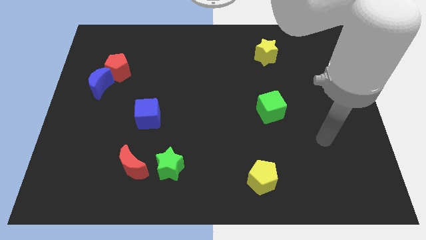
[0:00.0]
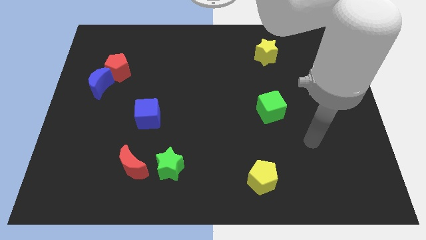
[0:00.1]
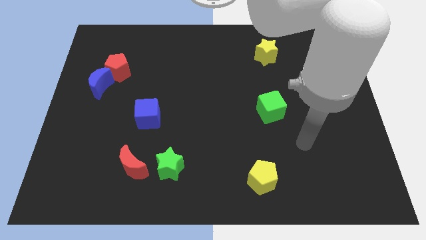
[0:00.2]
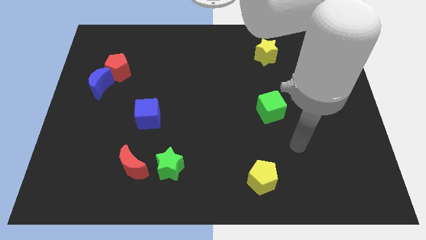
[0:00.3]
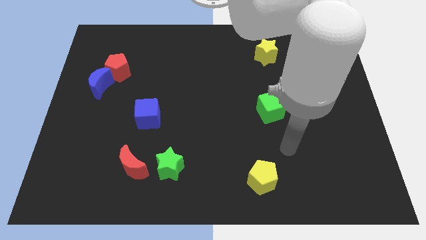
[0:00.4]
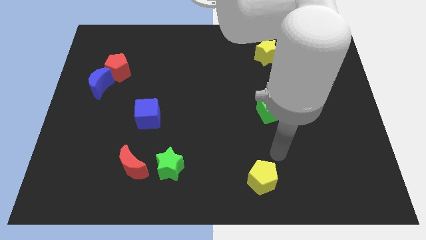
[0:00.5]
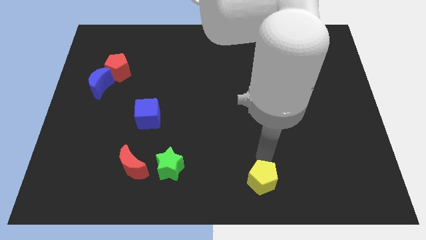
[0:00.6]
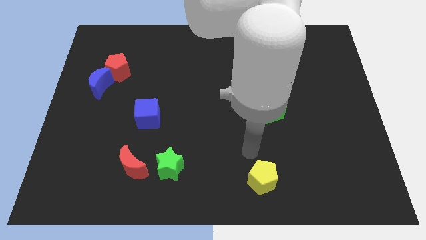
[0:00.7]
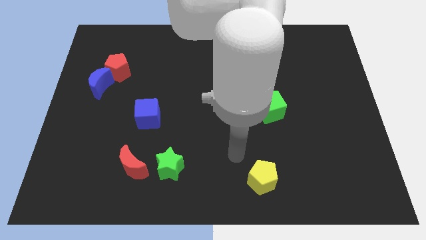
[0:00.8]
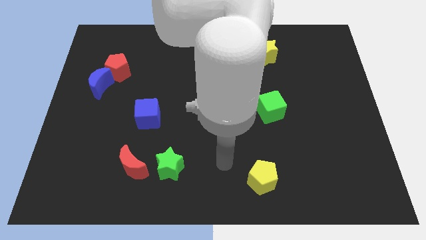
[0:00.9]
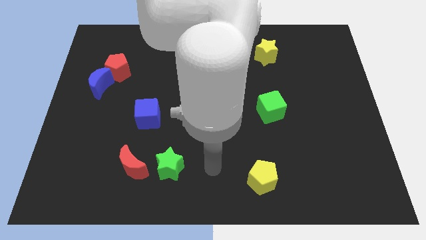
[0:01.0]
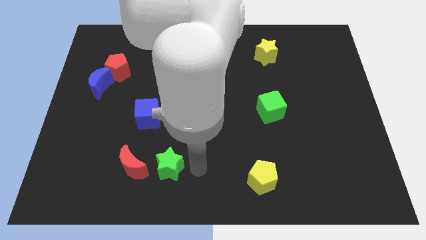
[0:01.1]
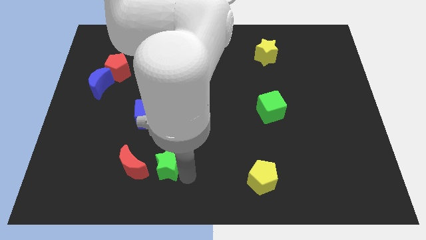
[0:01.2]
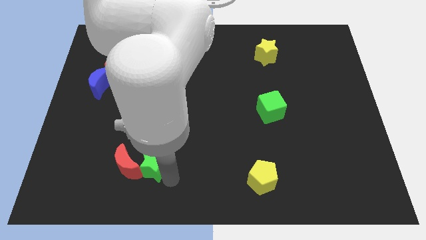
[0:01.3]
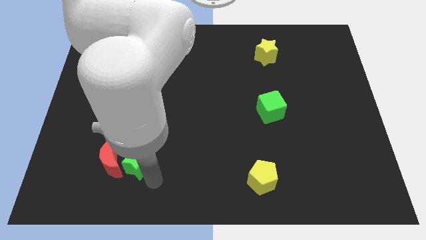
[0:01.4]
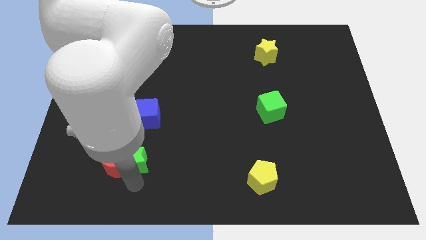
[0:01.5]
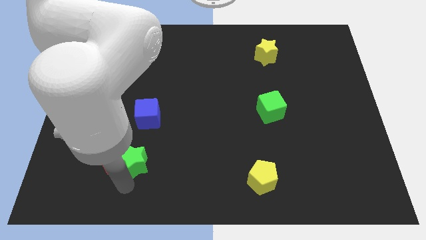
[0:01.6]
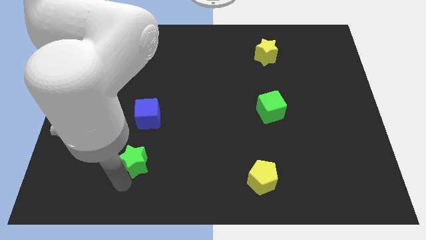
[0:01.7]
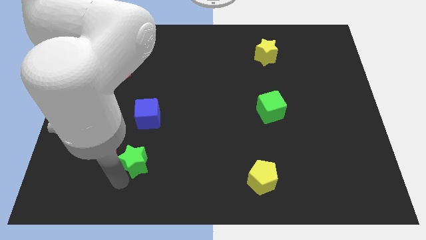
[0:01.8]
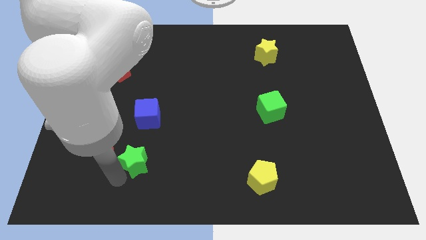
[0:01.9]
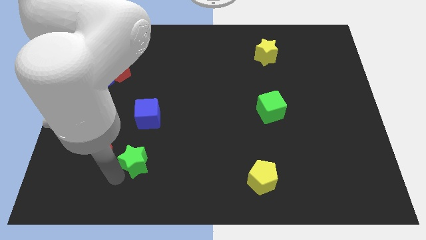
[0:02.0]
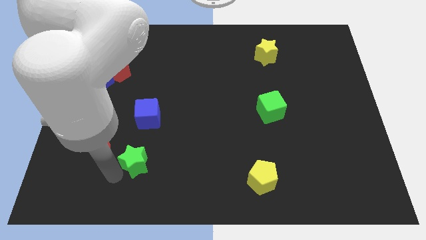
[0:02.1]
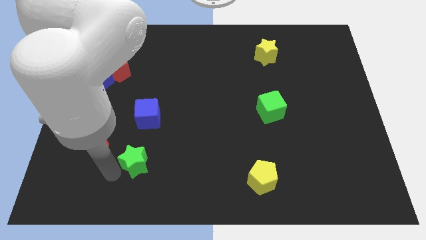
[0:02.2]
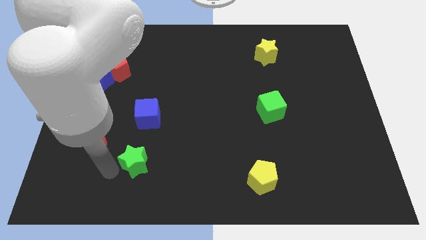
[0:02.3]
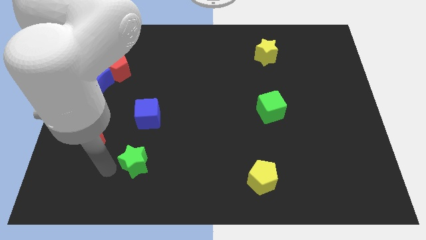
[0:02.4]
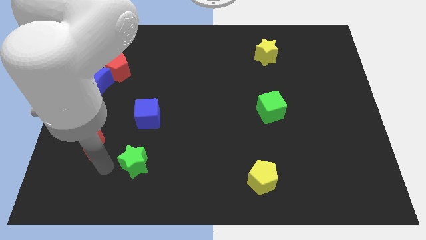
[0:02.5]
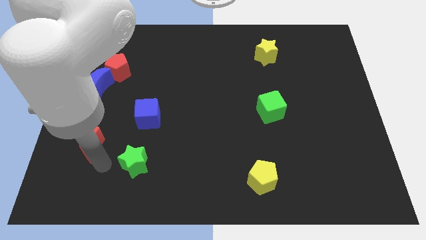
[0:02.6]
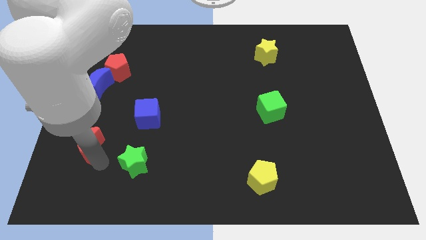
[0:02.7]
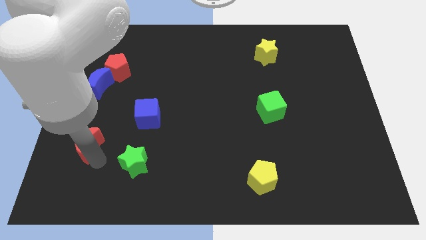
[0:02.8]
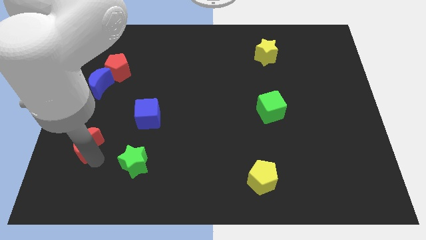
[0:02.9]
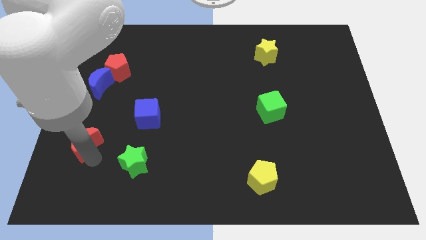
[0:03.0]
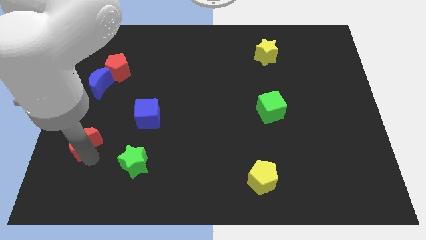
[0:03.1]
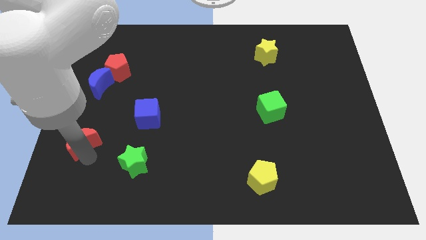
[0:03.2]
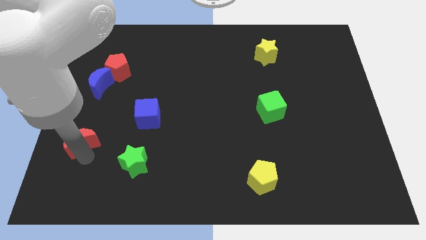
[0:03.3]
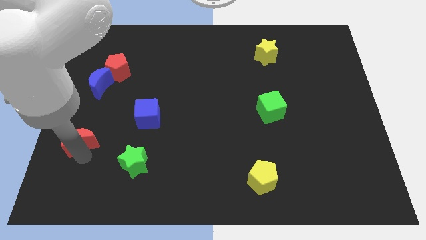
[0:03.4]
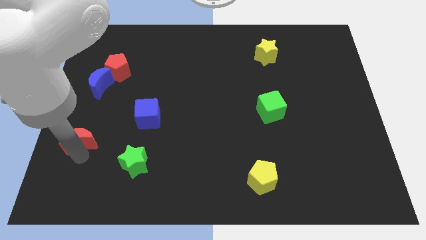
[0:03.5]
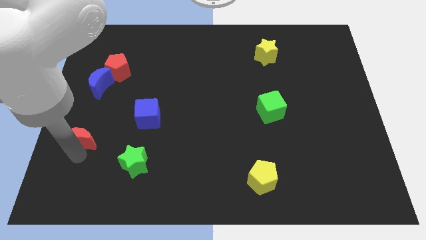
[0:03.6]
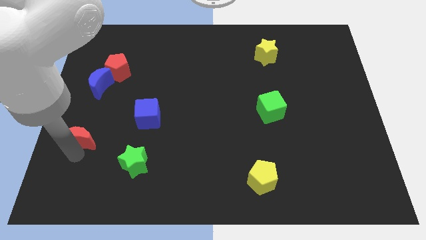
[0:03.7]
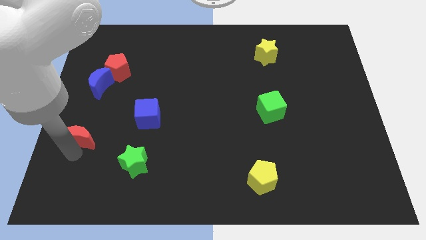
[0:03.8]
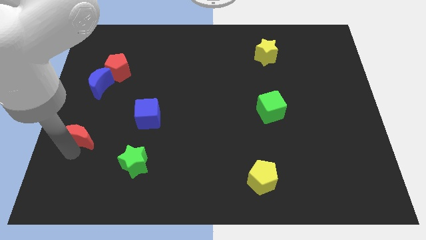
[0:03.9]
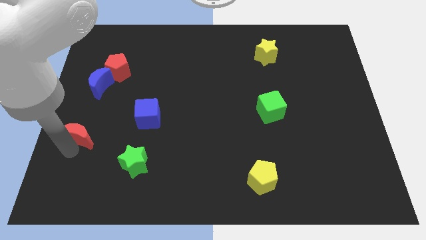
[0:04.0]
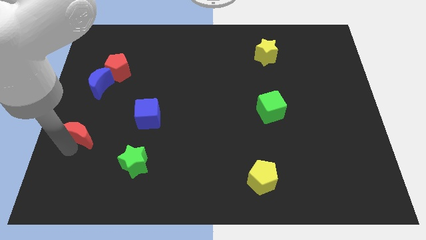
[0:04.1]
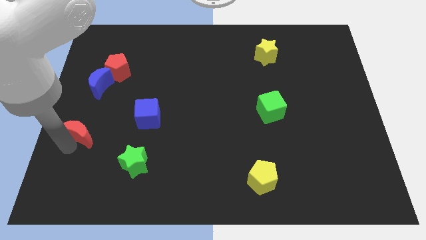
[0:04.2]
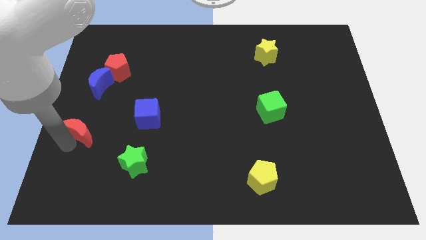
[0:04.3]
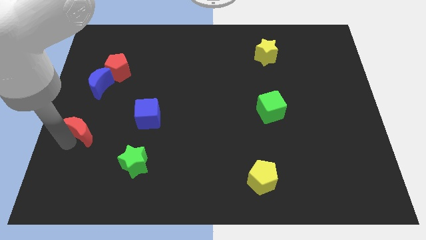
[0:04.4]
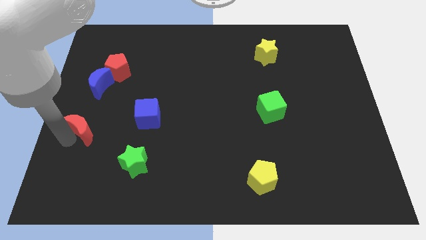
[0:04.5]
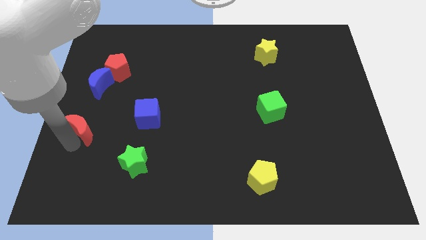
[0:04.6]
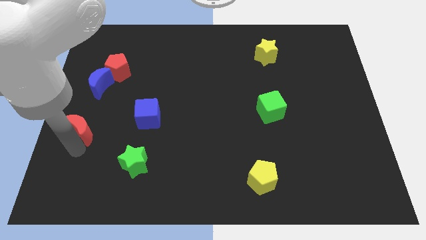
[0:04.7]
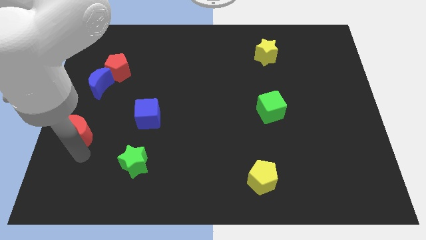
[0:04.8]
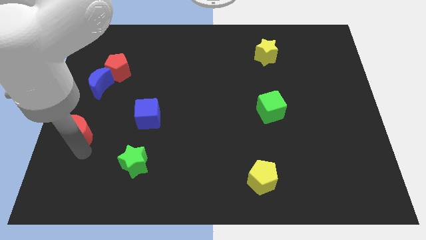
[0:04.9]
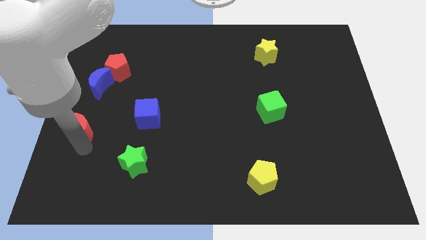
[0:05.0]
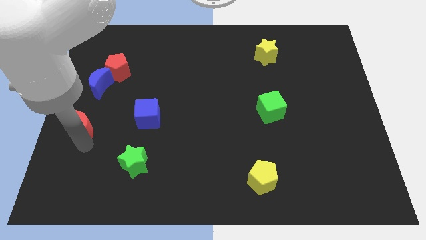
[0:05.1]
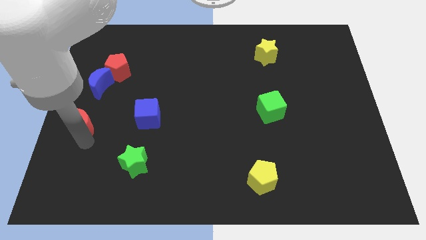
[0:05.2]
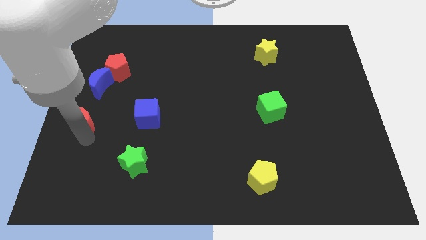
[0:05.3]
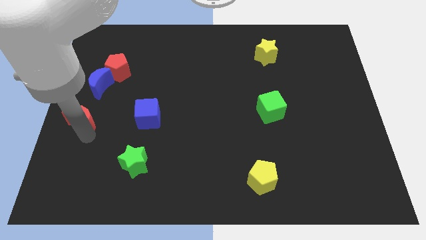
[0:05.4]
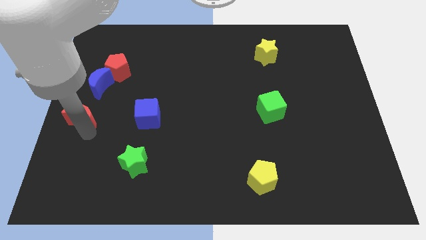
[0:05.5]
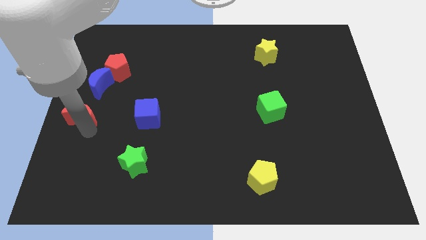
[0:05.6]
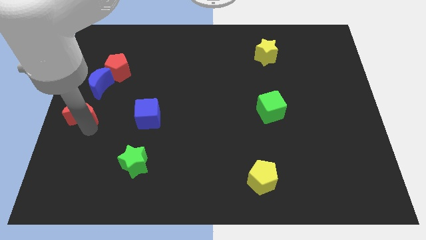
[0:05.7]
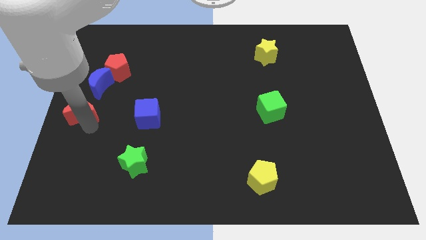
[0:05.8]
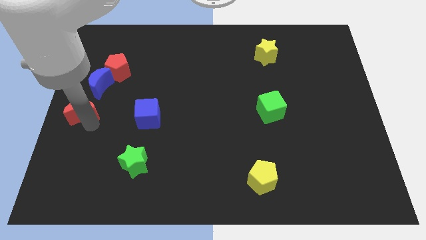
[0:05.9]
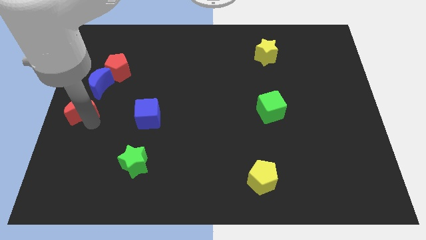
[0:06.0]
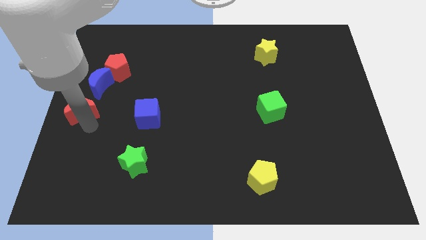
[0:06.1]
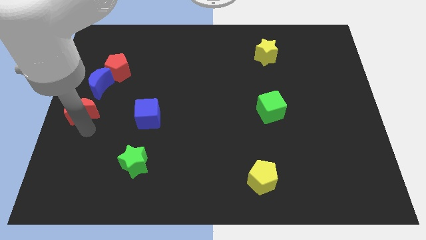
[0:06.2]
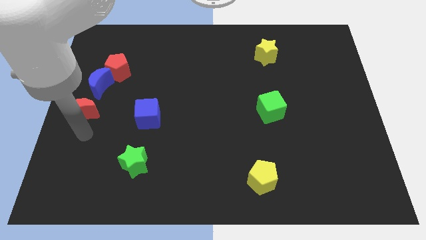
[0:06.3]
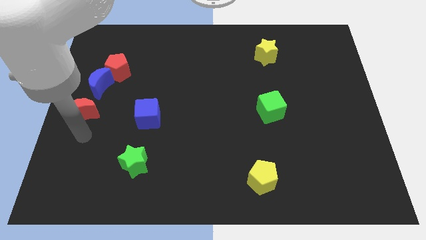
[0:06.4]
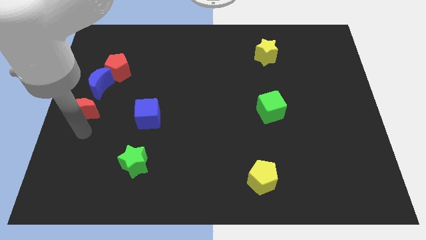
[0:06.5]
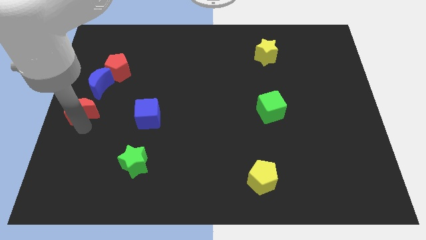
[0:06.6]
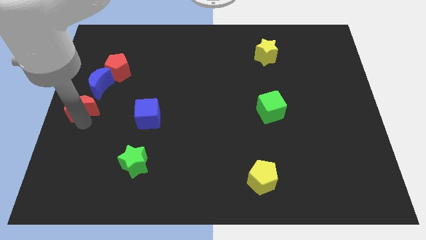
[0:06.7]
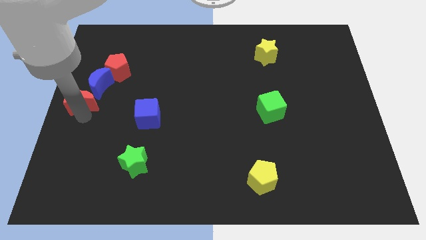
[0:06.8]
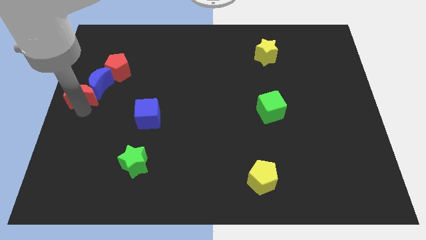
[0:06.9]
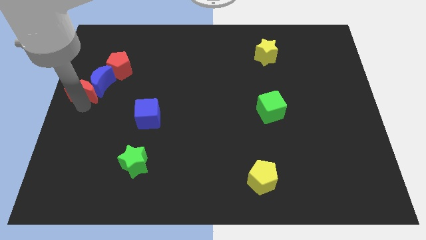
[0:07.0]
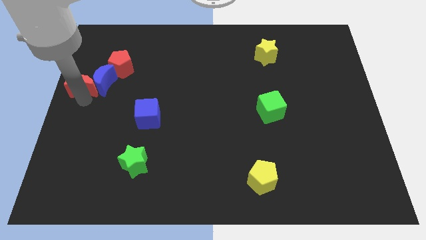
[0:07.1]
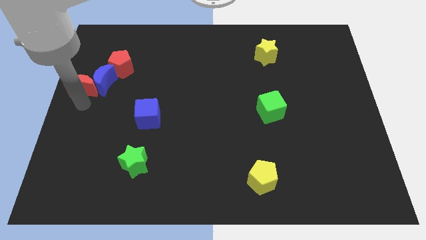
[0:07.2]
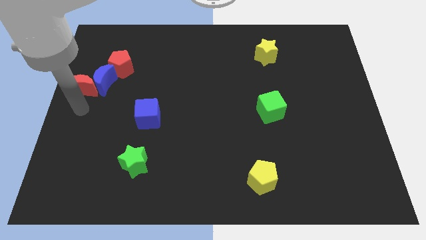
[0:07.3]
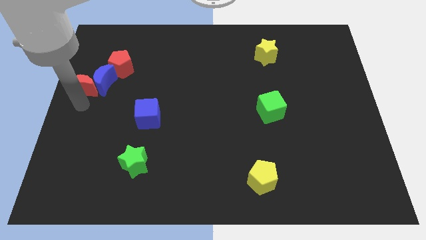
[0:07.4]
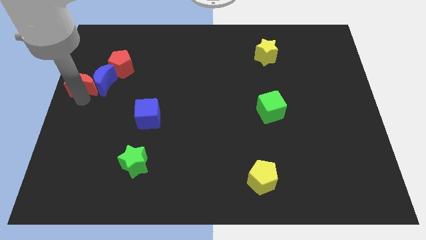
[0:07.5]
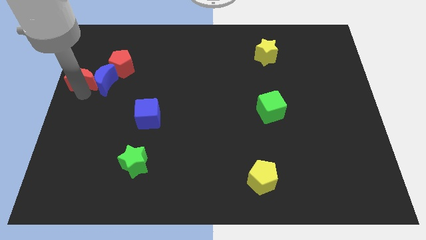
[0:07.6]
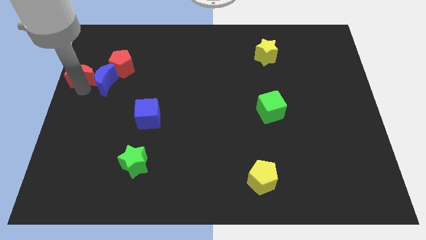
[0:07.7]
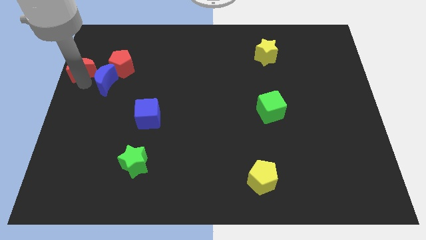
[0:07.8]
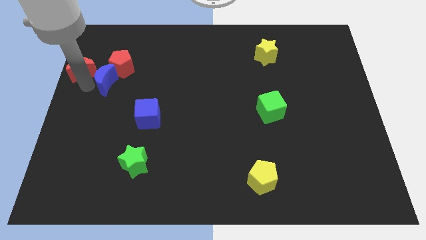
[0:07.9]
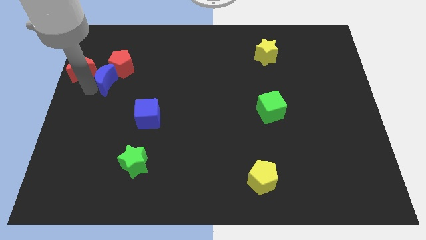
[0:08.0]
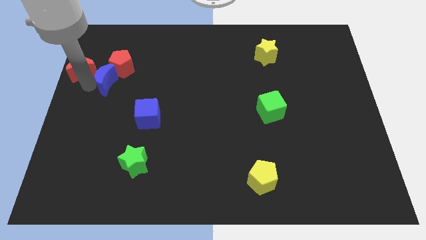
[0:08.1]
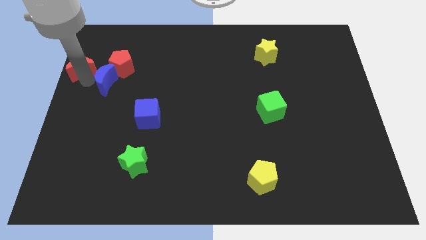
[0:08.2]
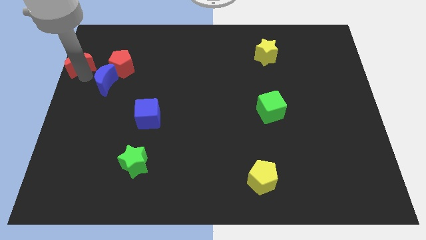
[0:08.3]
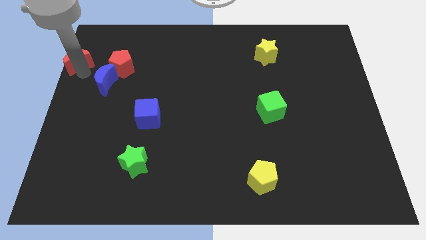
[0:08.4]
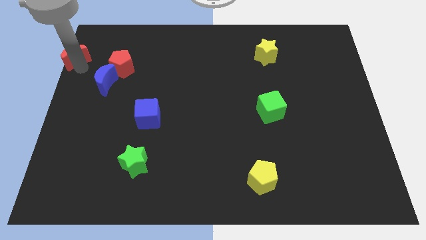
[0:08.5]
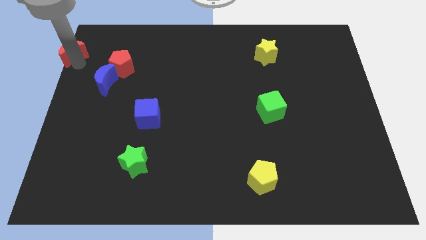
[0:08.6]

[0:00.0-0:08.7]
put the red moon to the top left corner
